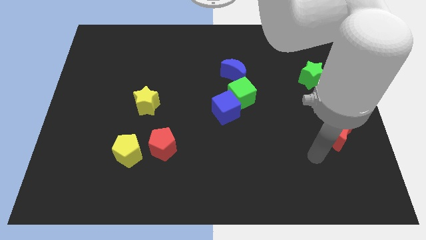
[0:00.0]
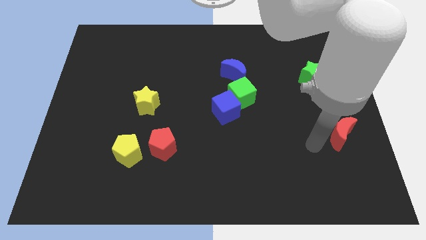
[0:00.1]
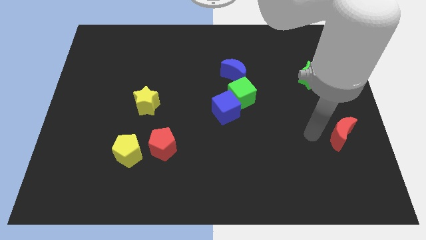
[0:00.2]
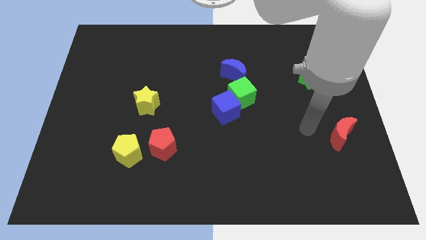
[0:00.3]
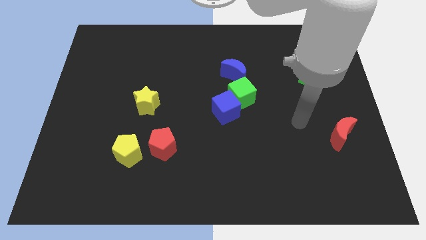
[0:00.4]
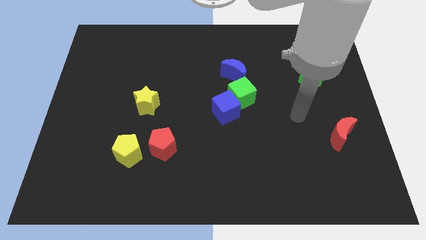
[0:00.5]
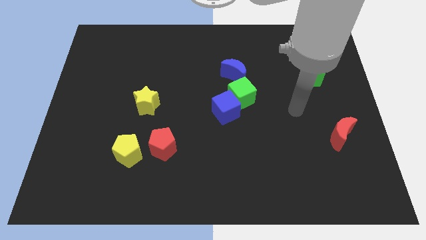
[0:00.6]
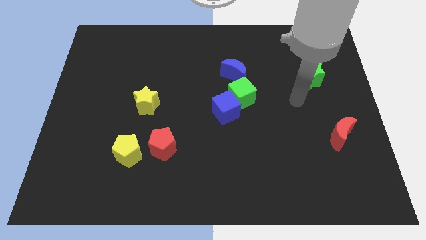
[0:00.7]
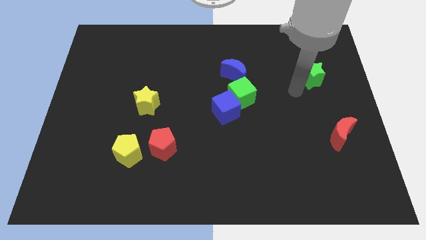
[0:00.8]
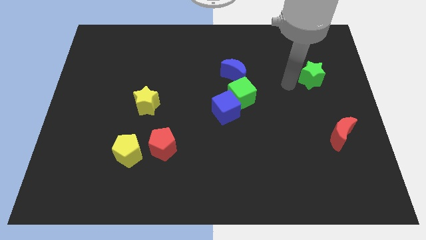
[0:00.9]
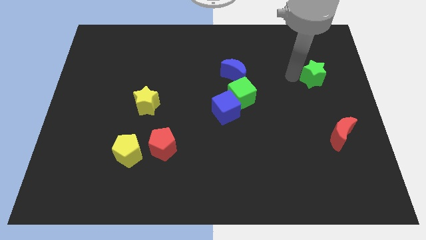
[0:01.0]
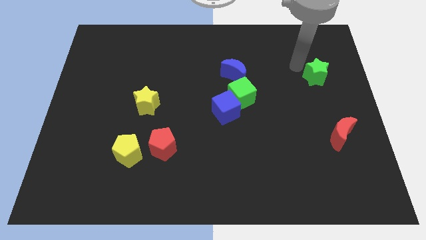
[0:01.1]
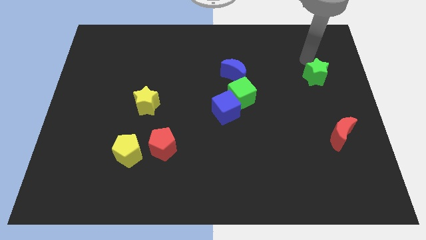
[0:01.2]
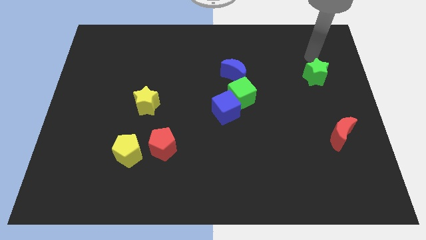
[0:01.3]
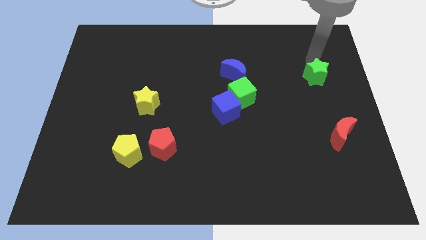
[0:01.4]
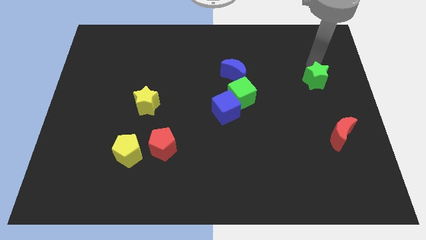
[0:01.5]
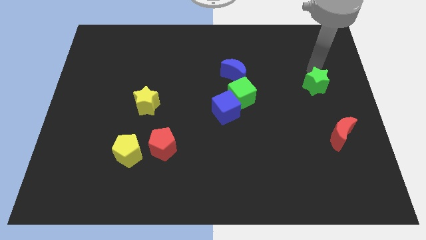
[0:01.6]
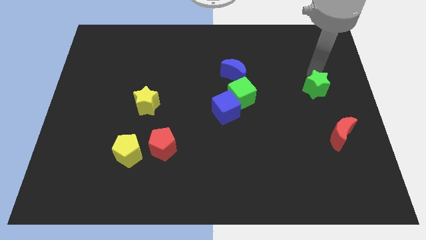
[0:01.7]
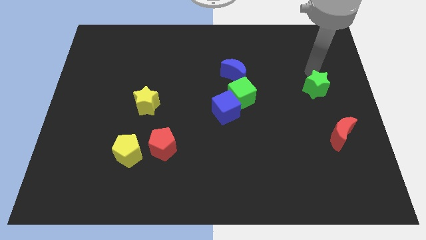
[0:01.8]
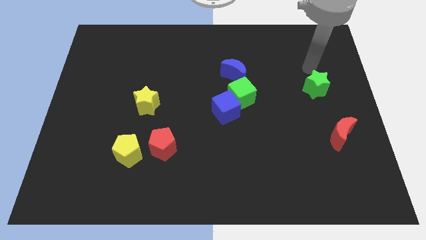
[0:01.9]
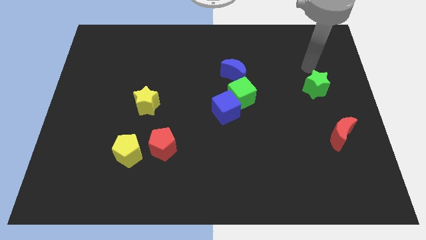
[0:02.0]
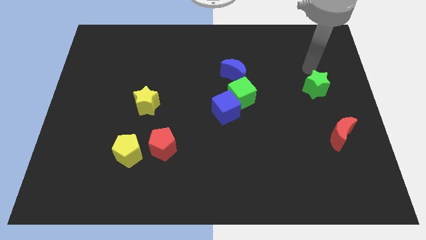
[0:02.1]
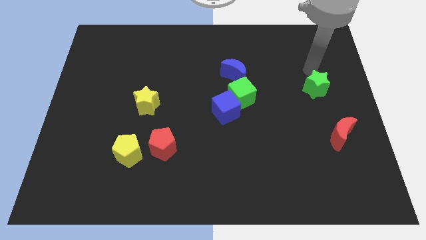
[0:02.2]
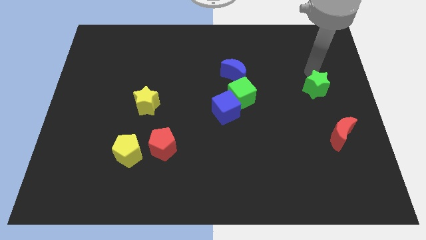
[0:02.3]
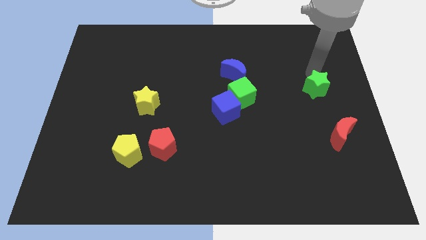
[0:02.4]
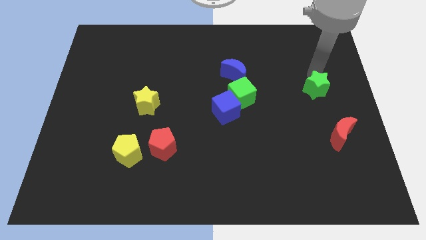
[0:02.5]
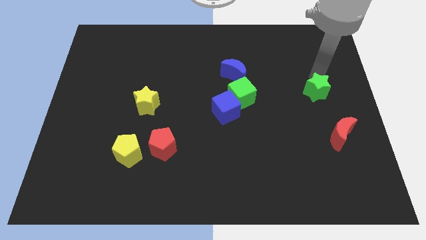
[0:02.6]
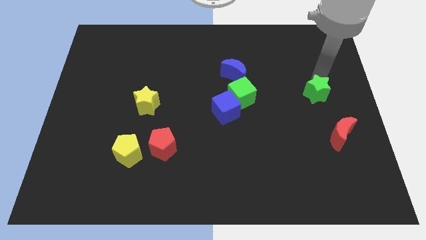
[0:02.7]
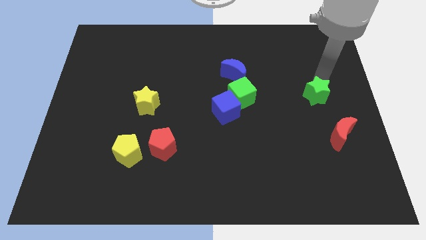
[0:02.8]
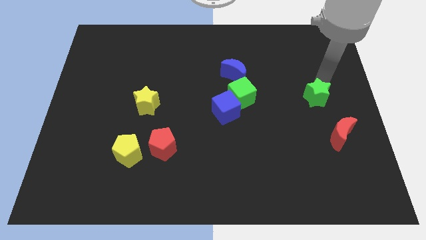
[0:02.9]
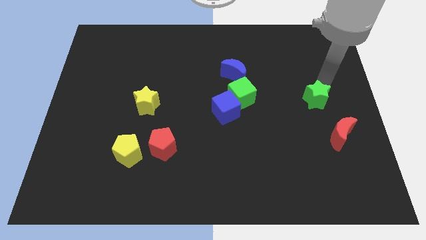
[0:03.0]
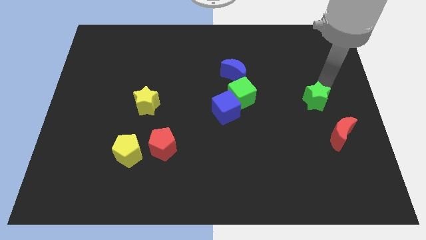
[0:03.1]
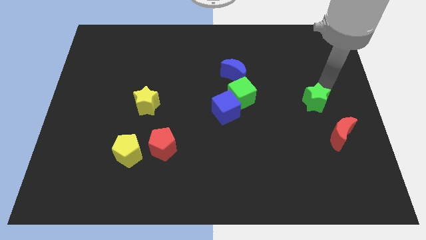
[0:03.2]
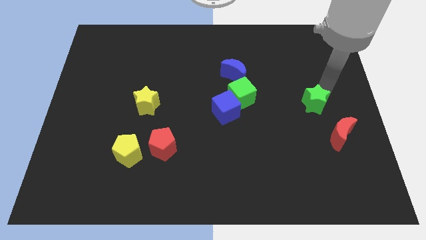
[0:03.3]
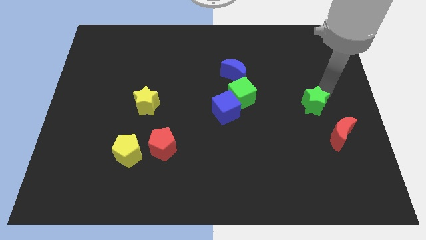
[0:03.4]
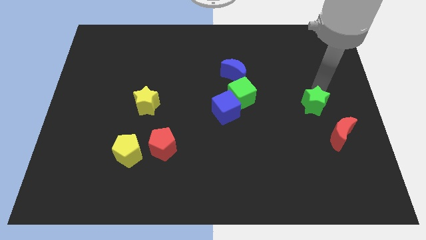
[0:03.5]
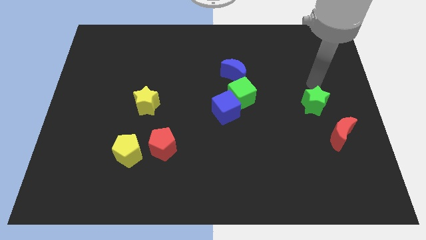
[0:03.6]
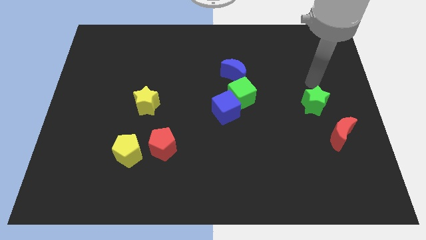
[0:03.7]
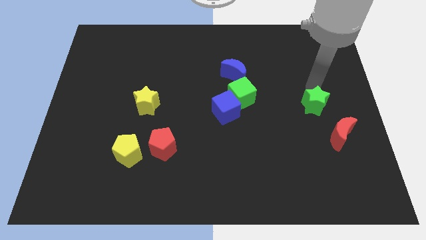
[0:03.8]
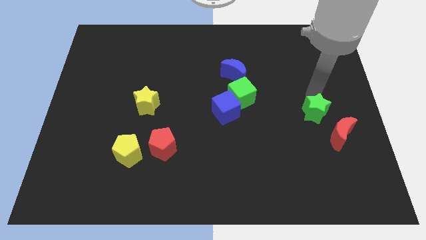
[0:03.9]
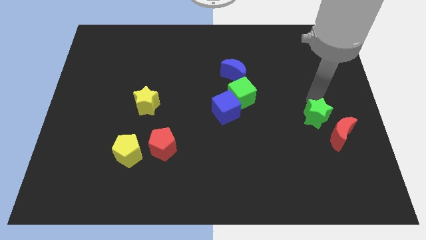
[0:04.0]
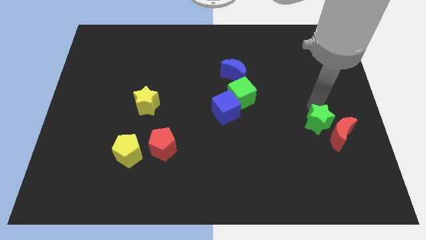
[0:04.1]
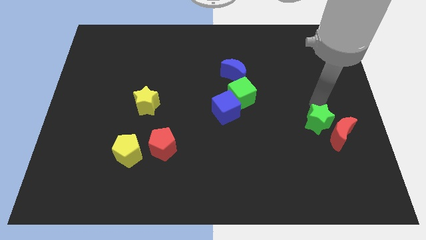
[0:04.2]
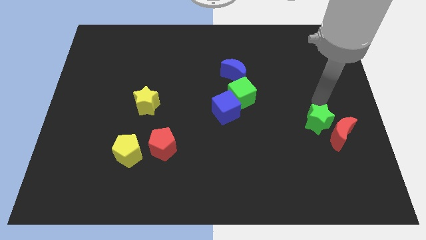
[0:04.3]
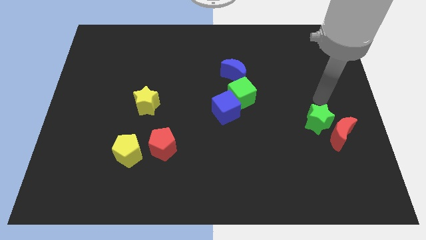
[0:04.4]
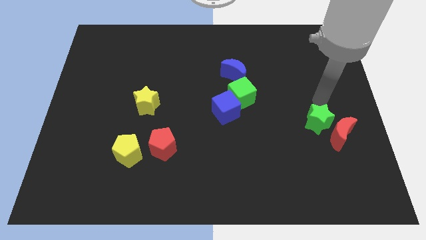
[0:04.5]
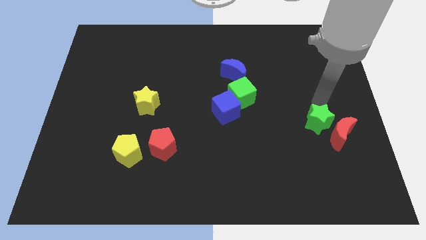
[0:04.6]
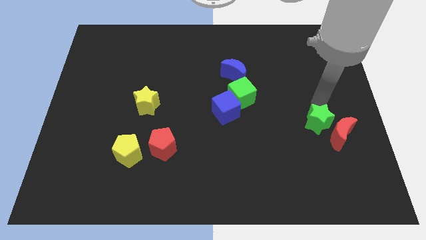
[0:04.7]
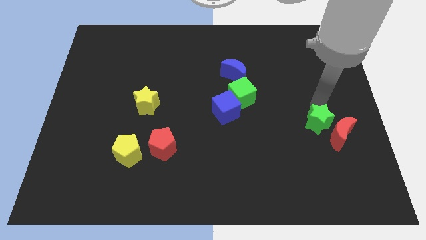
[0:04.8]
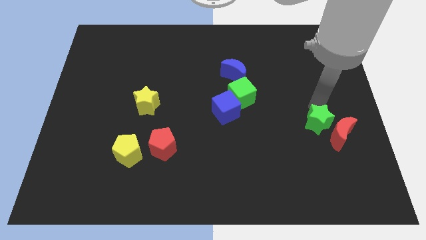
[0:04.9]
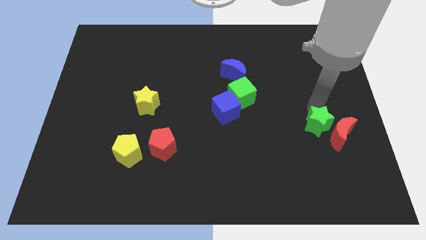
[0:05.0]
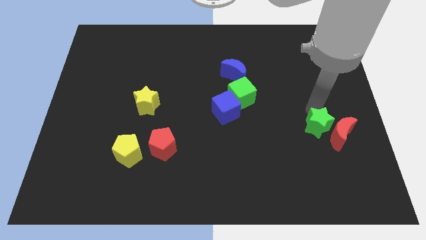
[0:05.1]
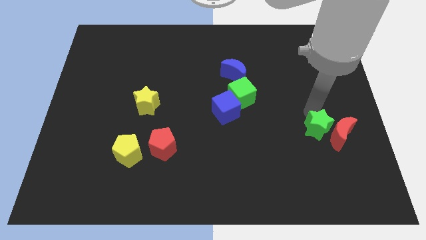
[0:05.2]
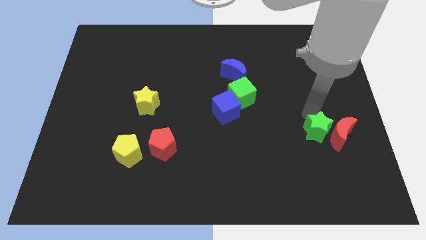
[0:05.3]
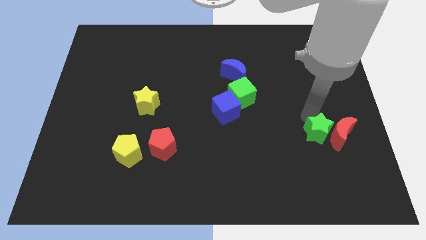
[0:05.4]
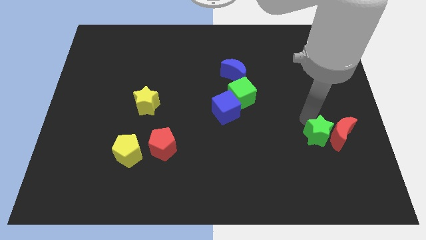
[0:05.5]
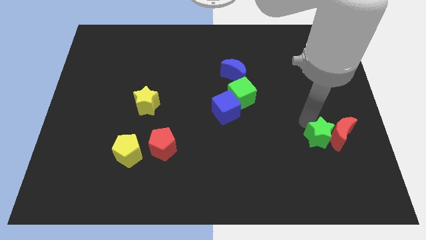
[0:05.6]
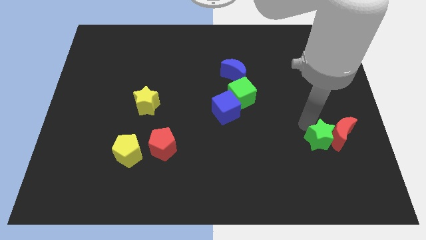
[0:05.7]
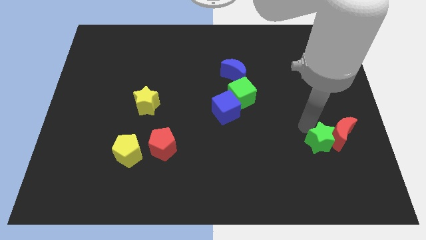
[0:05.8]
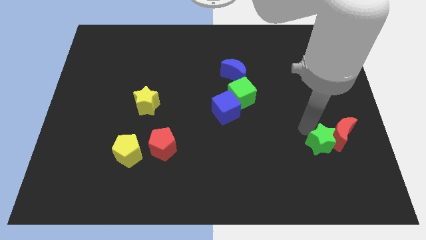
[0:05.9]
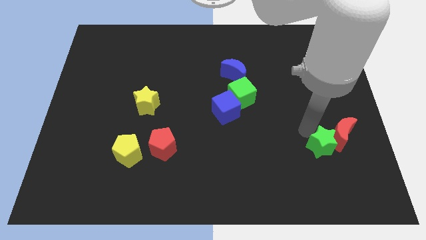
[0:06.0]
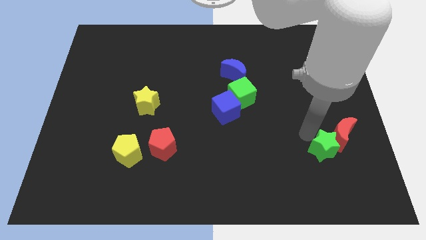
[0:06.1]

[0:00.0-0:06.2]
push the green star below the red moon

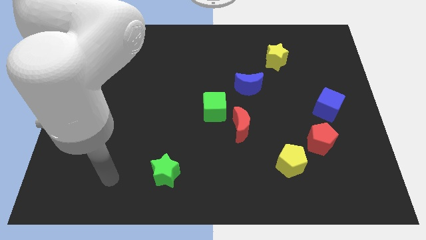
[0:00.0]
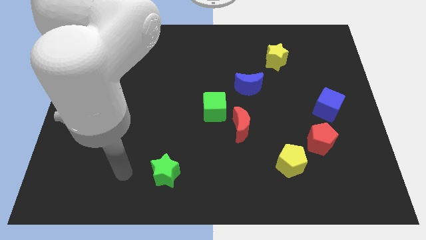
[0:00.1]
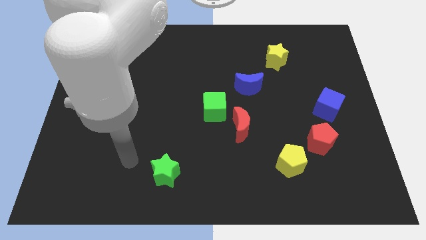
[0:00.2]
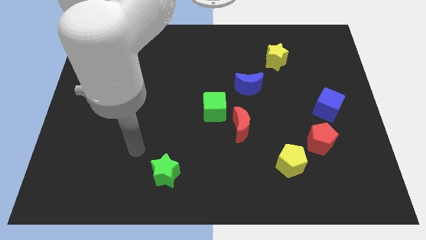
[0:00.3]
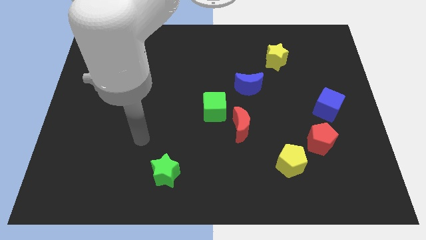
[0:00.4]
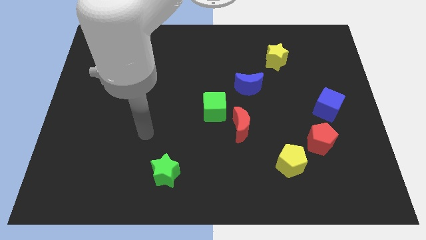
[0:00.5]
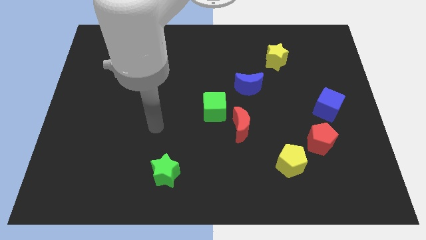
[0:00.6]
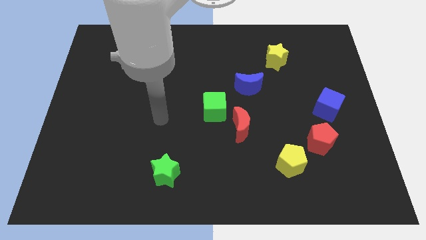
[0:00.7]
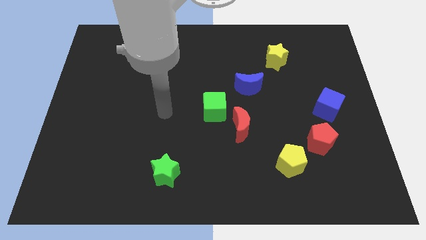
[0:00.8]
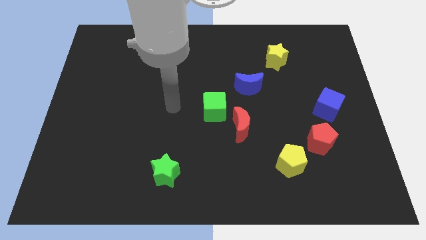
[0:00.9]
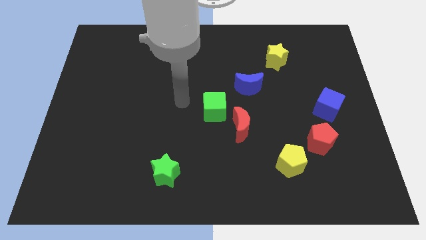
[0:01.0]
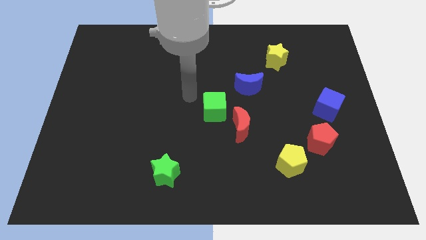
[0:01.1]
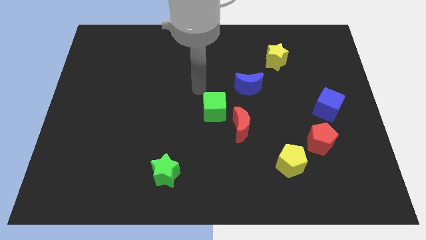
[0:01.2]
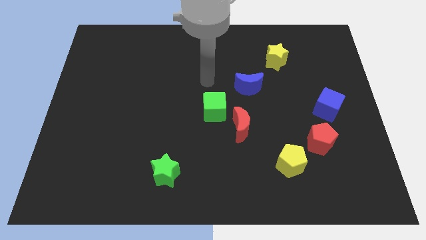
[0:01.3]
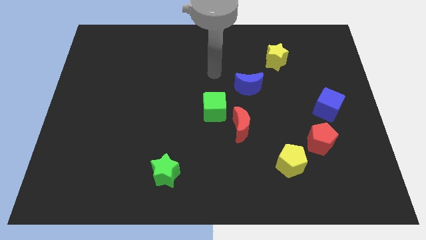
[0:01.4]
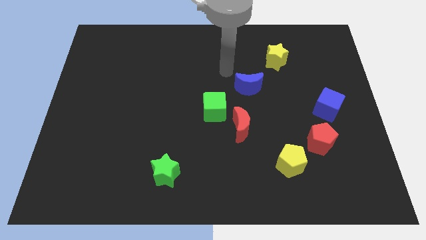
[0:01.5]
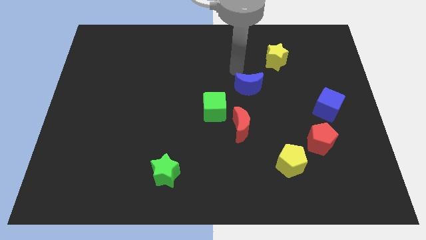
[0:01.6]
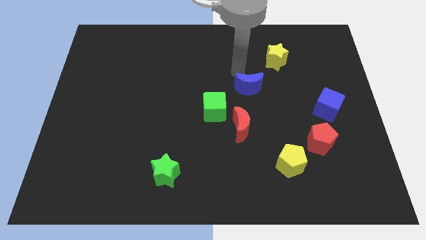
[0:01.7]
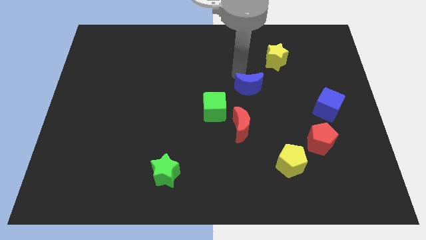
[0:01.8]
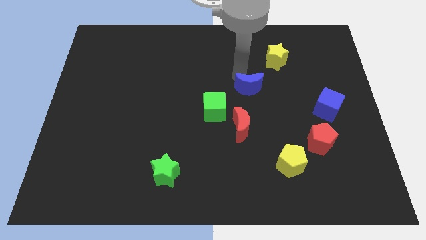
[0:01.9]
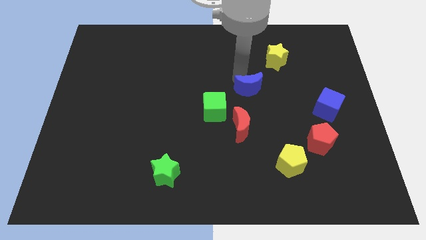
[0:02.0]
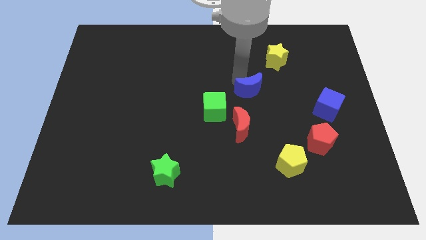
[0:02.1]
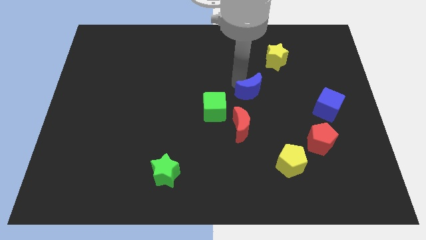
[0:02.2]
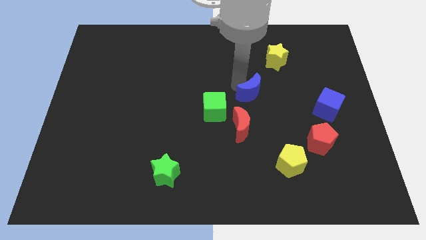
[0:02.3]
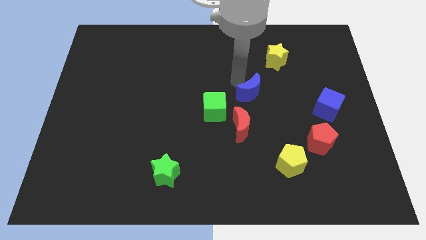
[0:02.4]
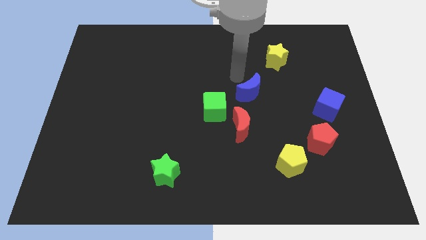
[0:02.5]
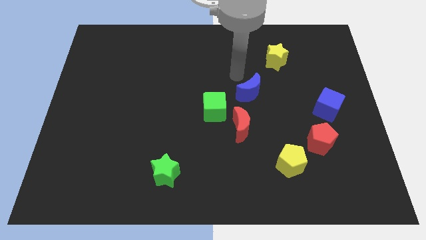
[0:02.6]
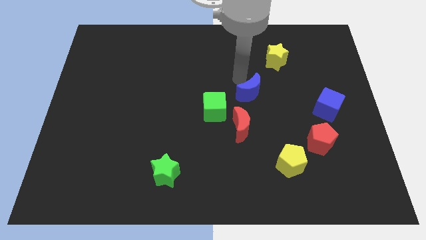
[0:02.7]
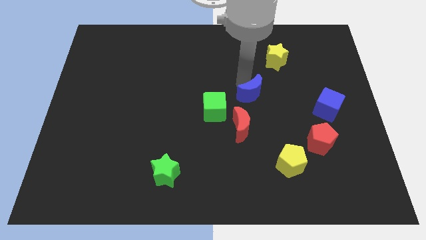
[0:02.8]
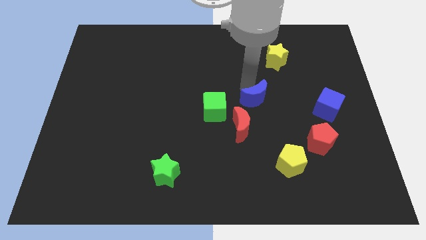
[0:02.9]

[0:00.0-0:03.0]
put the blue moon to the top right of the red moon
